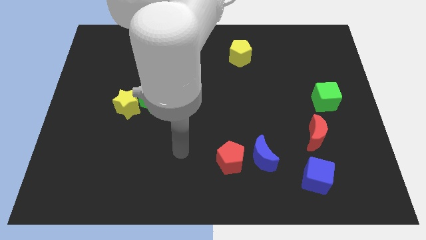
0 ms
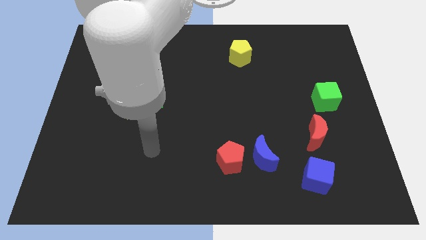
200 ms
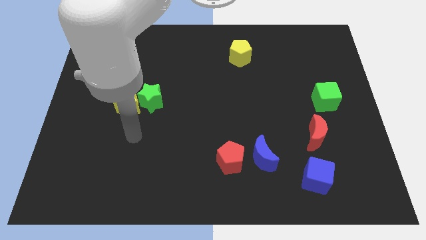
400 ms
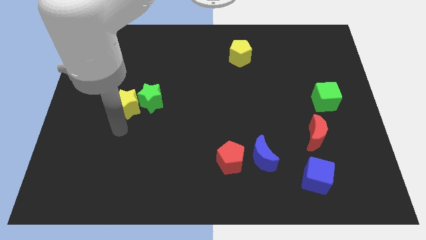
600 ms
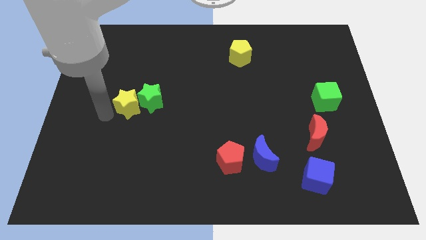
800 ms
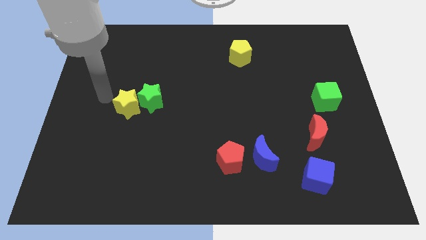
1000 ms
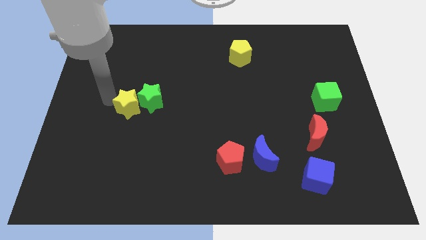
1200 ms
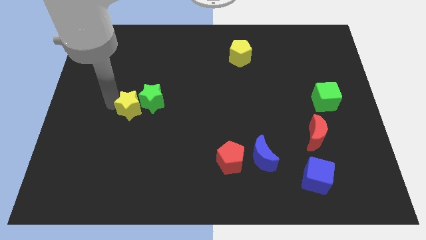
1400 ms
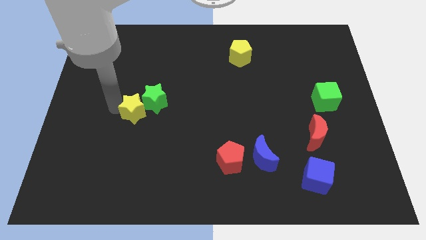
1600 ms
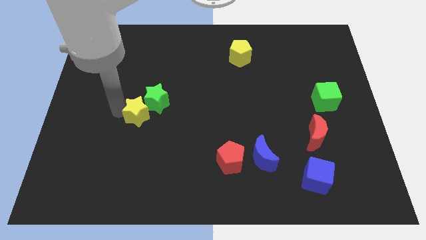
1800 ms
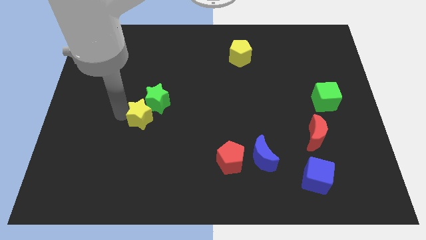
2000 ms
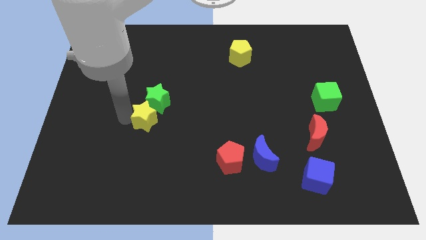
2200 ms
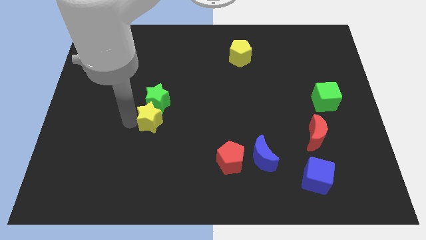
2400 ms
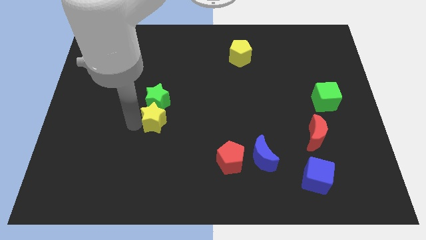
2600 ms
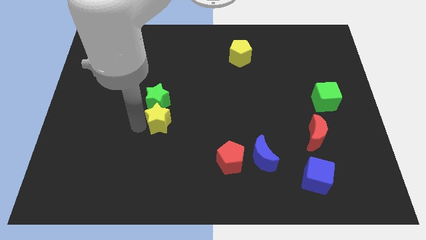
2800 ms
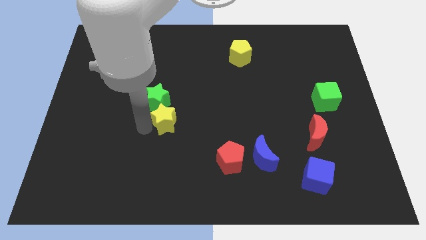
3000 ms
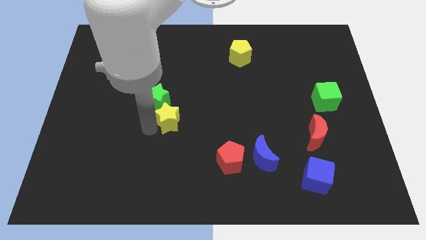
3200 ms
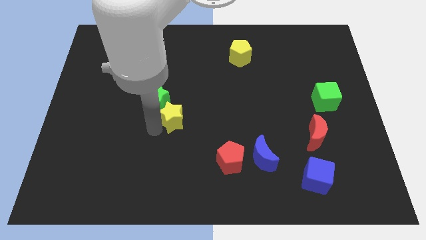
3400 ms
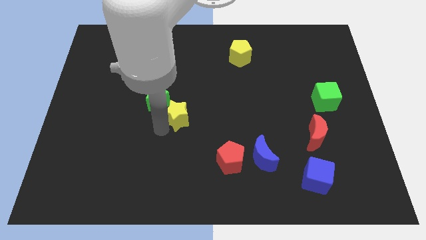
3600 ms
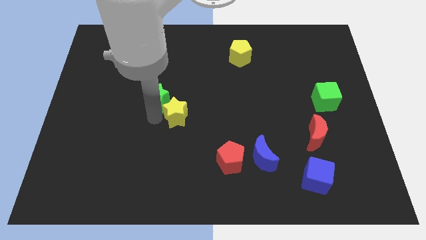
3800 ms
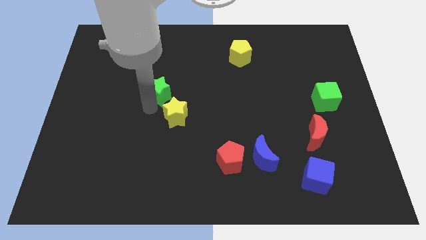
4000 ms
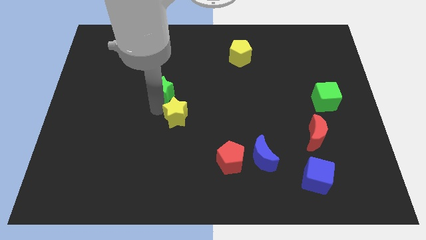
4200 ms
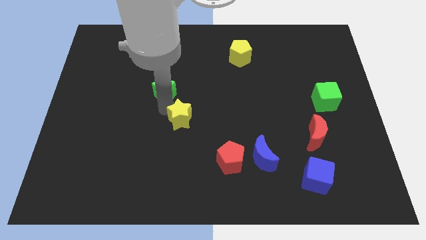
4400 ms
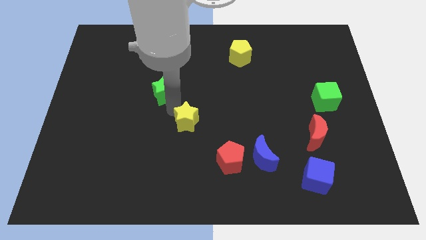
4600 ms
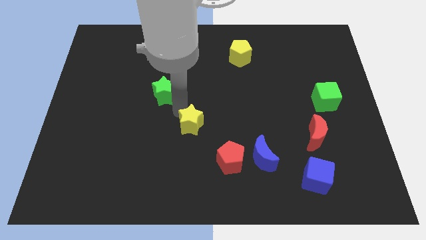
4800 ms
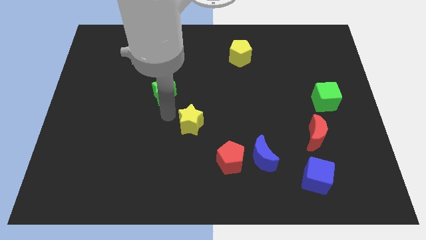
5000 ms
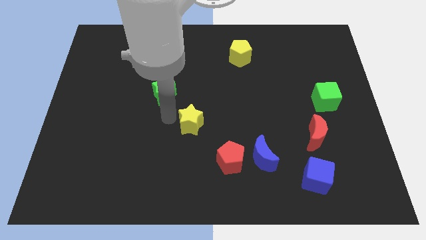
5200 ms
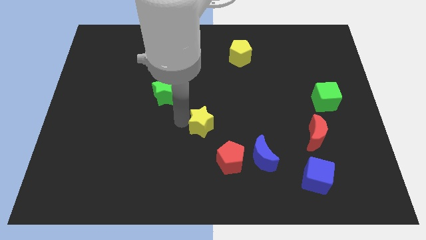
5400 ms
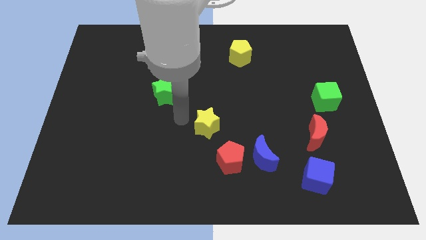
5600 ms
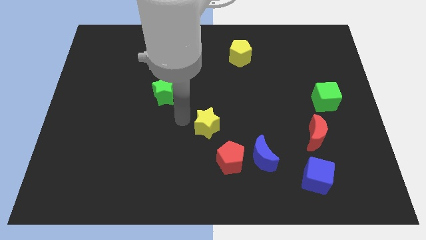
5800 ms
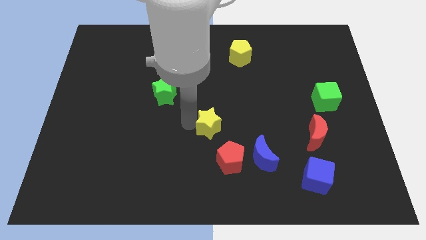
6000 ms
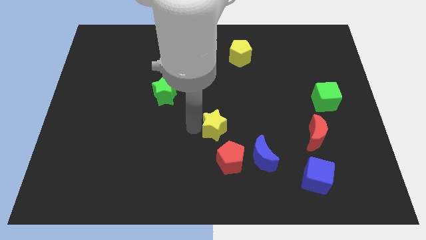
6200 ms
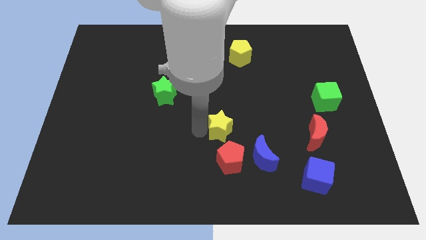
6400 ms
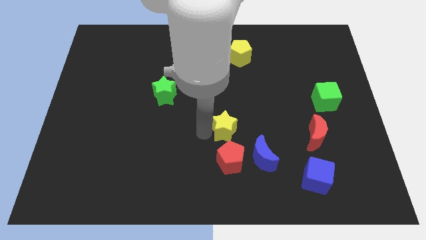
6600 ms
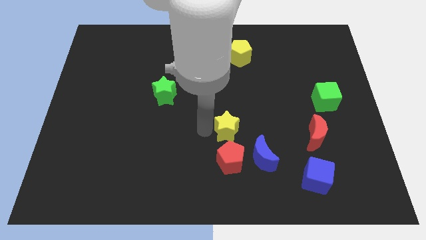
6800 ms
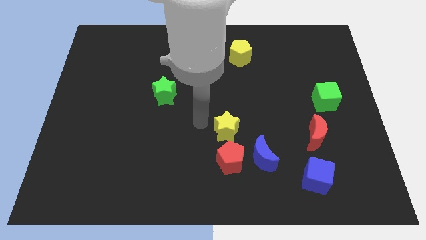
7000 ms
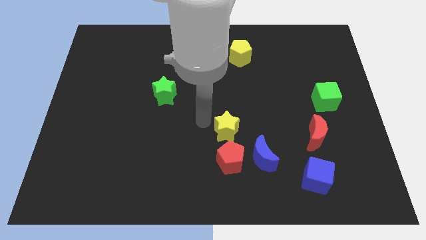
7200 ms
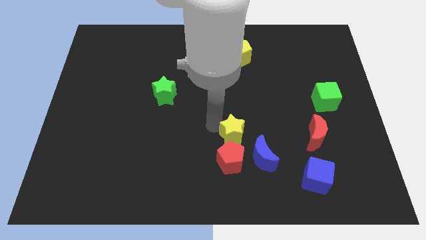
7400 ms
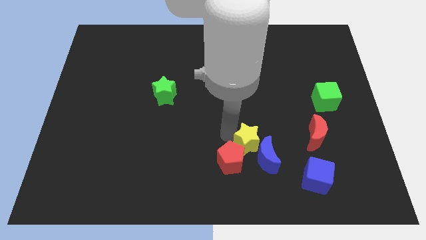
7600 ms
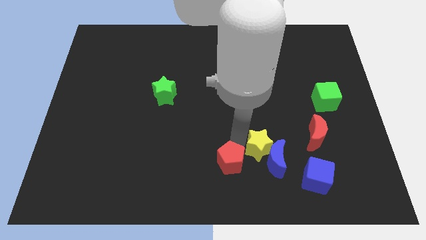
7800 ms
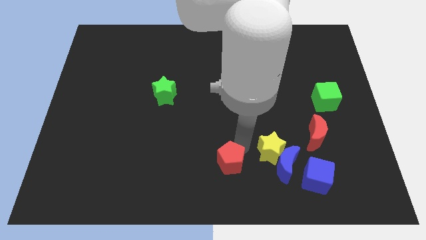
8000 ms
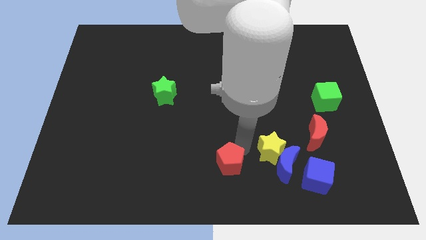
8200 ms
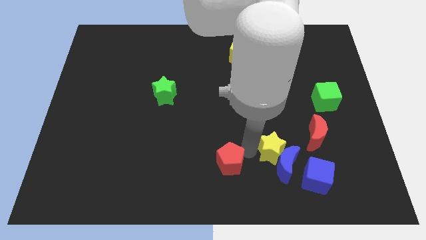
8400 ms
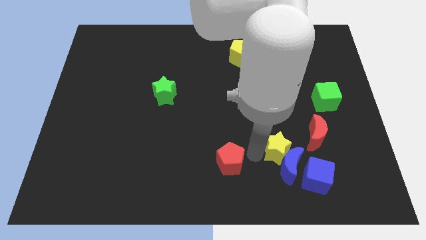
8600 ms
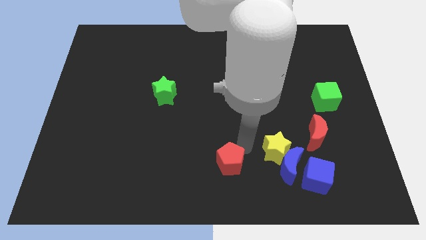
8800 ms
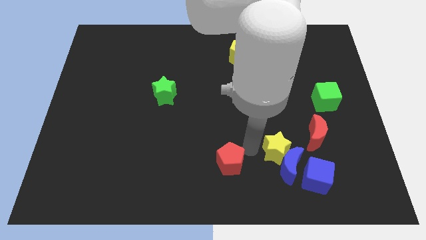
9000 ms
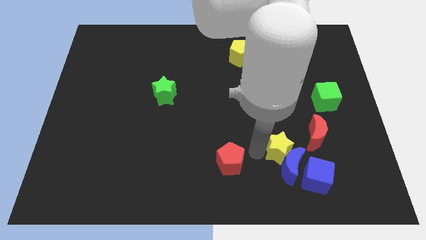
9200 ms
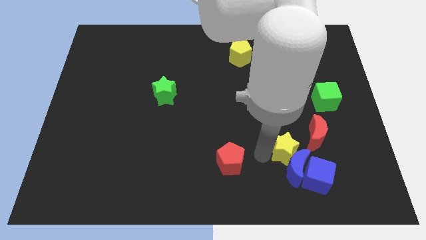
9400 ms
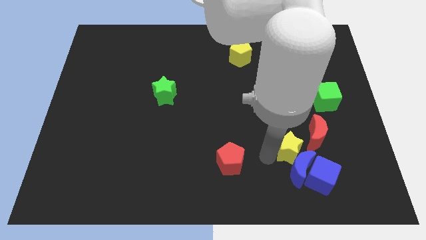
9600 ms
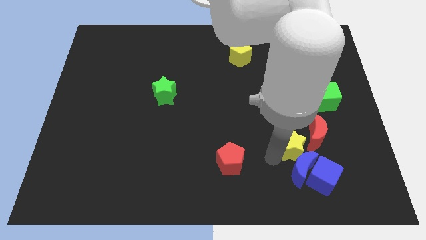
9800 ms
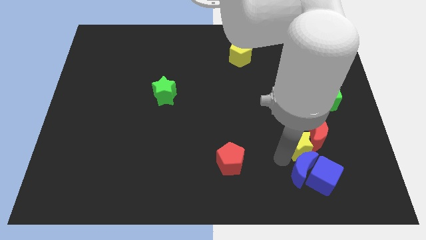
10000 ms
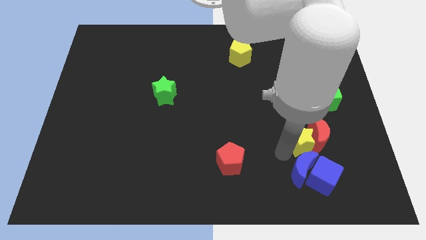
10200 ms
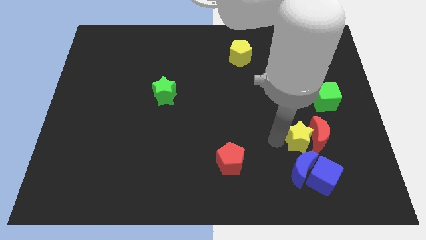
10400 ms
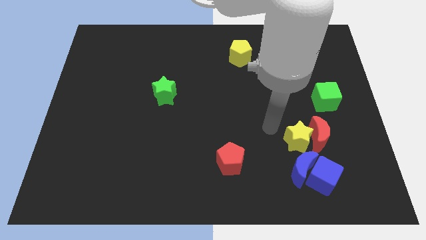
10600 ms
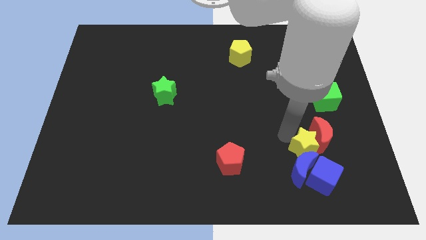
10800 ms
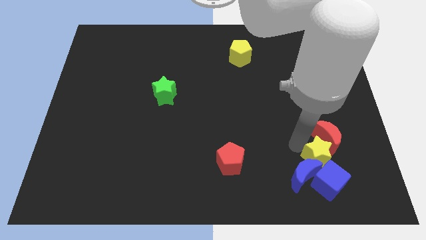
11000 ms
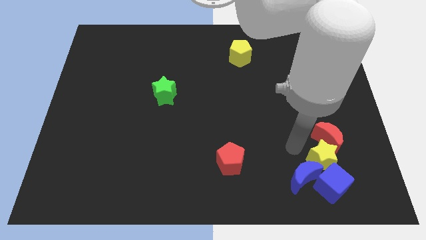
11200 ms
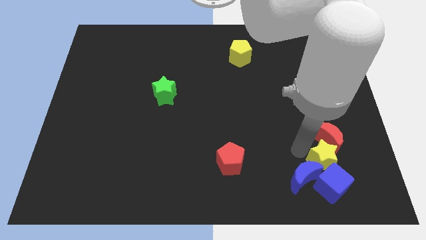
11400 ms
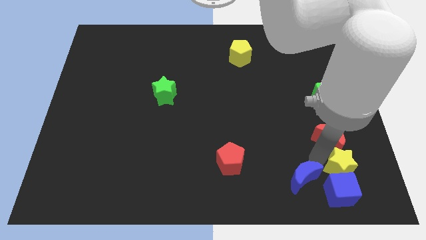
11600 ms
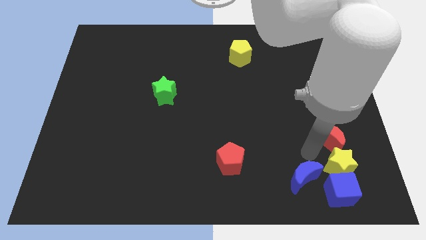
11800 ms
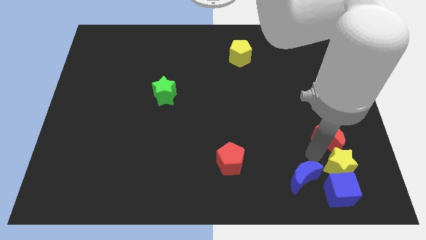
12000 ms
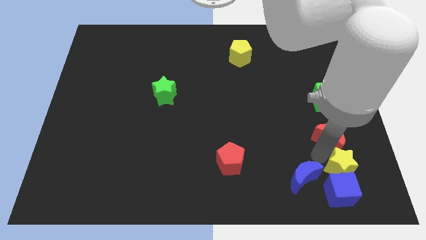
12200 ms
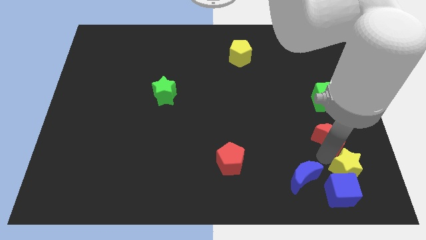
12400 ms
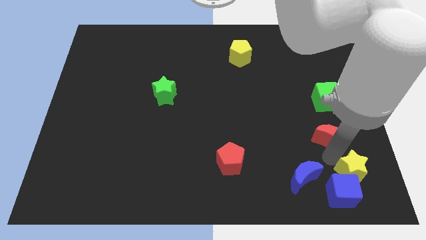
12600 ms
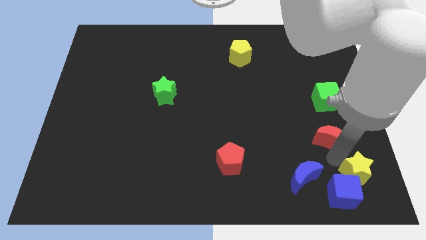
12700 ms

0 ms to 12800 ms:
slide the yellow star to the bottom right corner
